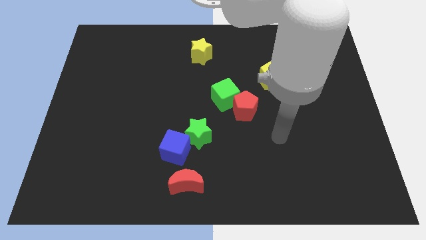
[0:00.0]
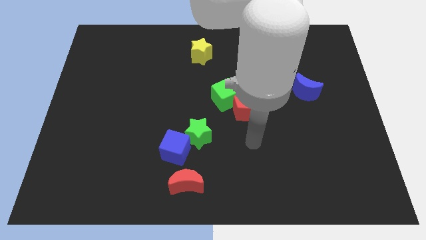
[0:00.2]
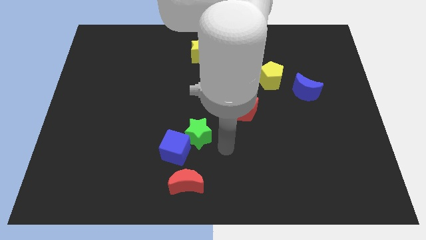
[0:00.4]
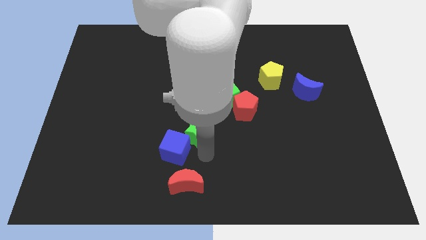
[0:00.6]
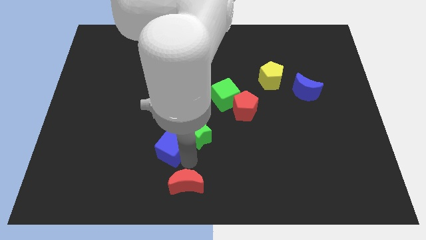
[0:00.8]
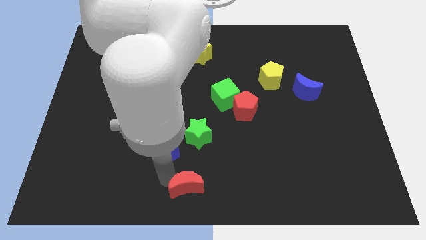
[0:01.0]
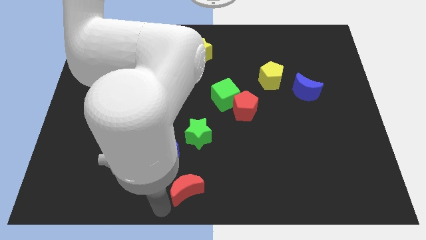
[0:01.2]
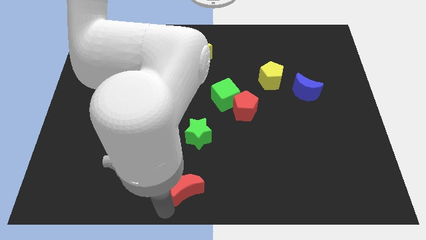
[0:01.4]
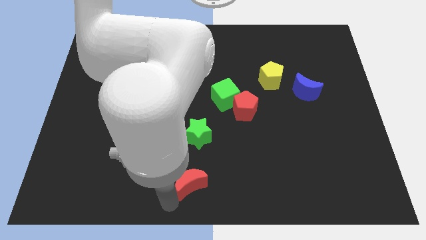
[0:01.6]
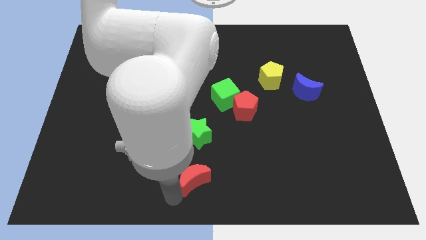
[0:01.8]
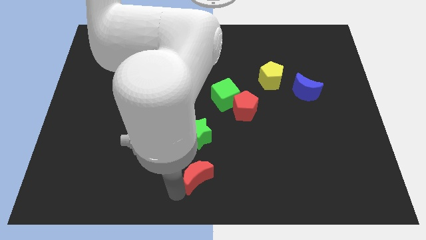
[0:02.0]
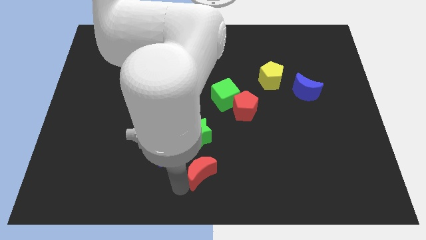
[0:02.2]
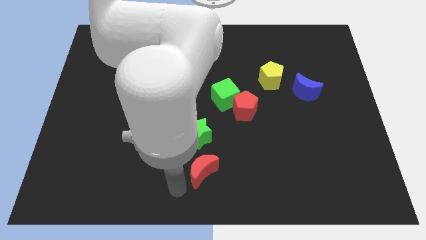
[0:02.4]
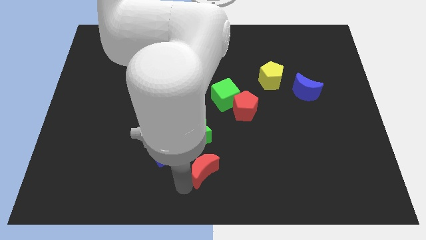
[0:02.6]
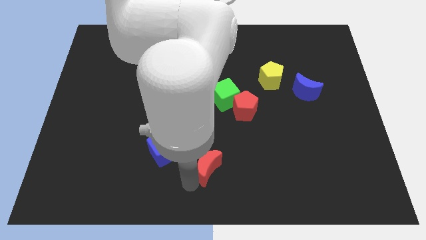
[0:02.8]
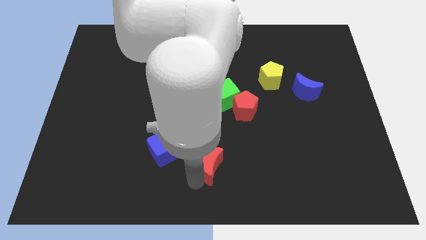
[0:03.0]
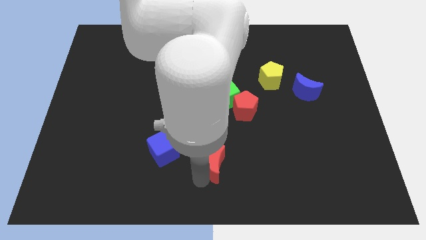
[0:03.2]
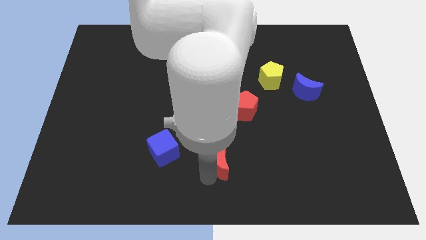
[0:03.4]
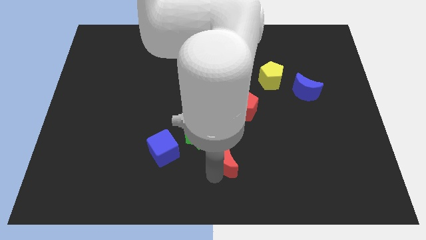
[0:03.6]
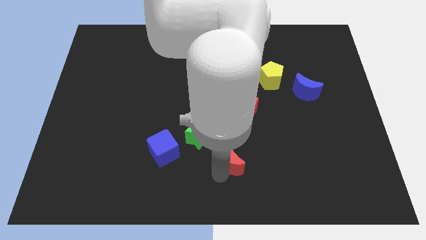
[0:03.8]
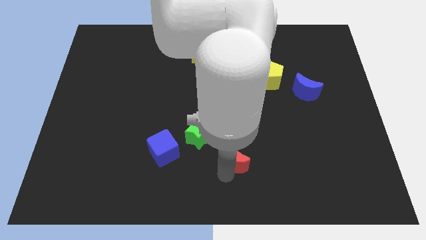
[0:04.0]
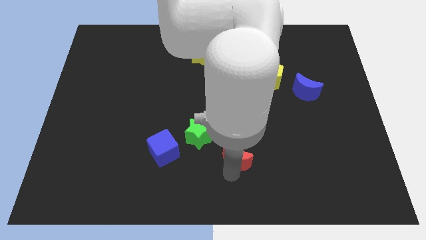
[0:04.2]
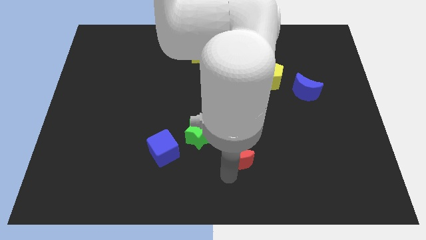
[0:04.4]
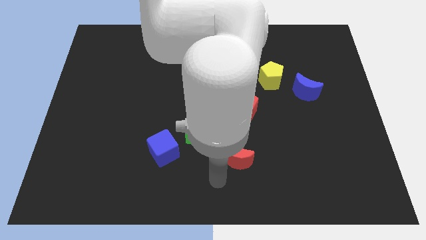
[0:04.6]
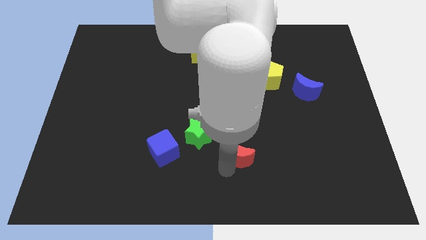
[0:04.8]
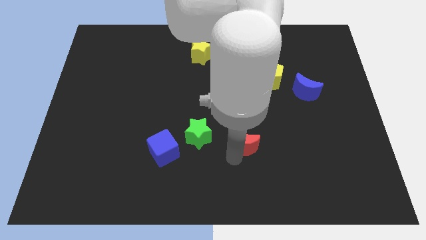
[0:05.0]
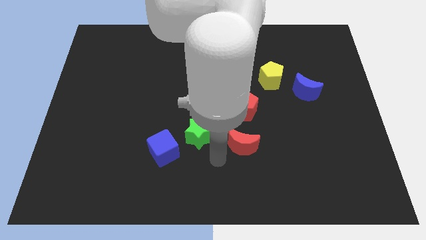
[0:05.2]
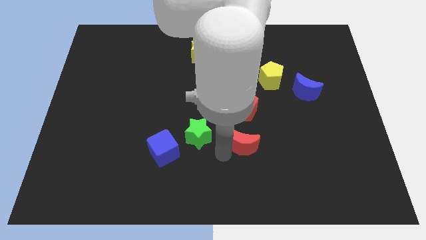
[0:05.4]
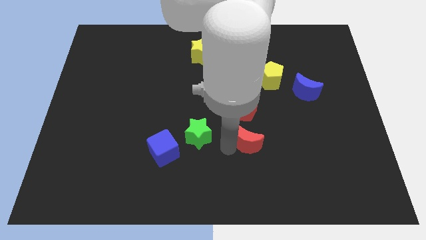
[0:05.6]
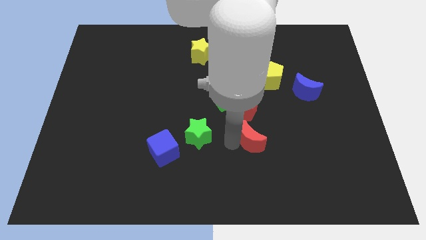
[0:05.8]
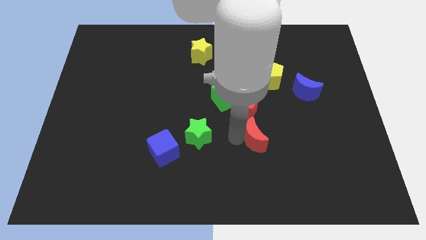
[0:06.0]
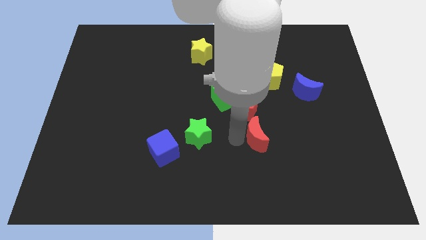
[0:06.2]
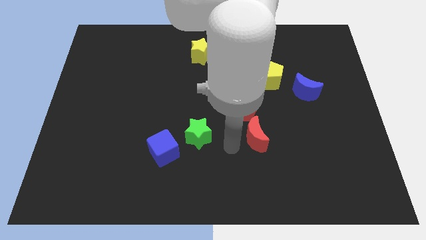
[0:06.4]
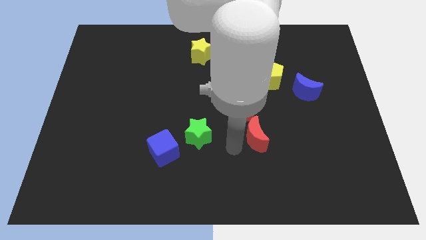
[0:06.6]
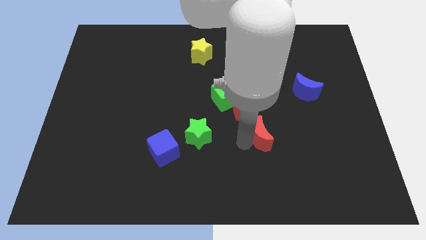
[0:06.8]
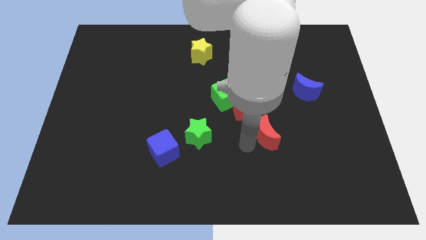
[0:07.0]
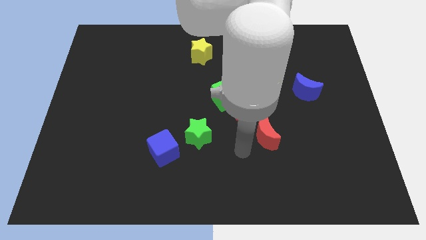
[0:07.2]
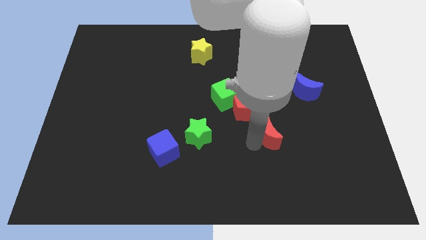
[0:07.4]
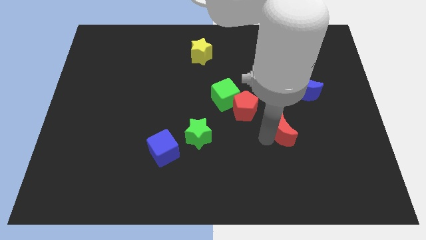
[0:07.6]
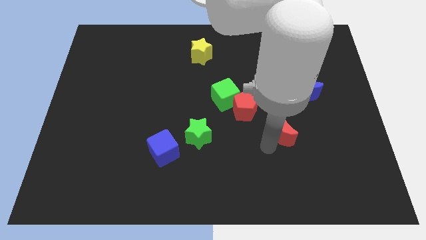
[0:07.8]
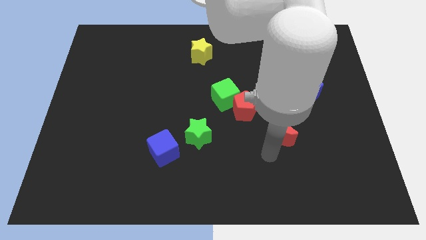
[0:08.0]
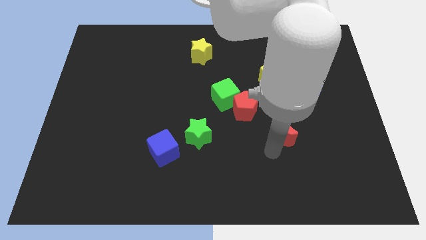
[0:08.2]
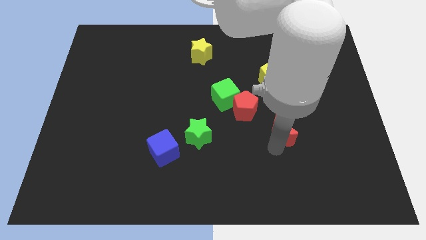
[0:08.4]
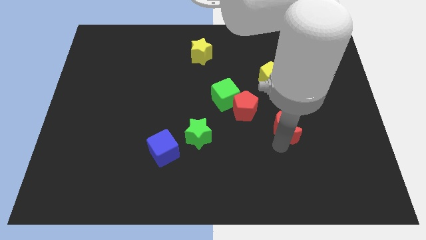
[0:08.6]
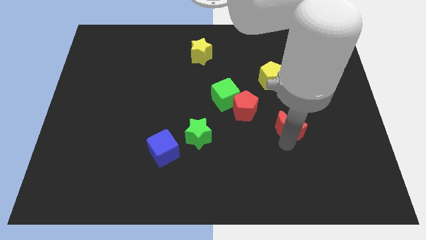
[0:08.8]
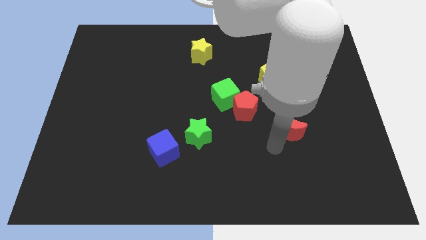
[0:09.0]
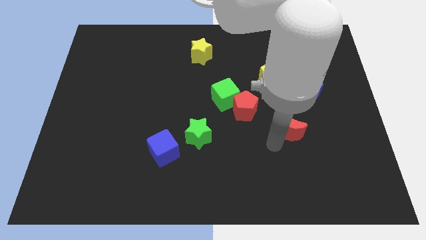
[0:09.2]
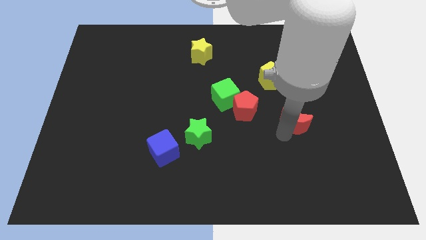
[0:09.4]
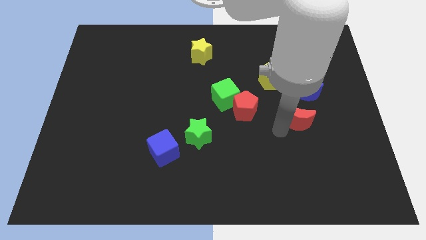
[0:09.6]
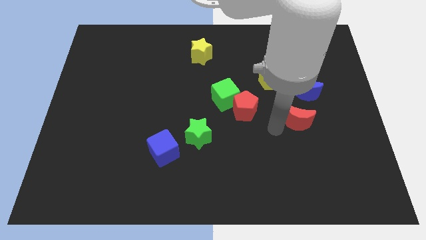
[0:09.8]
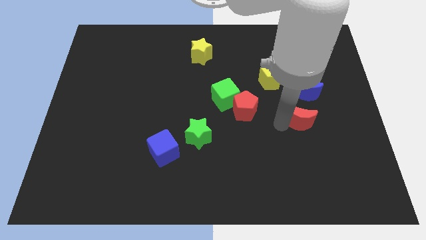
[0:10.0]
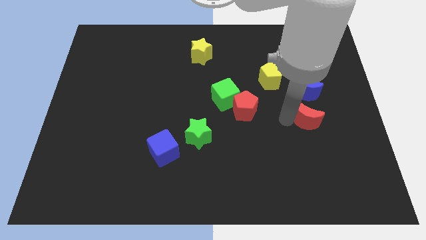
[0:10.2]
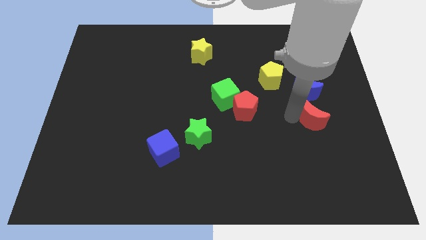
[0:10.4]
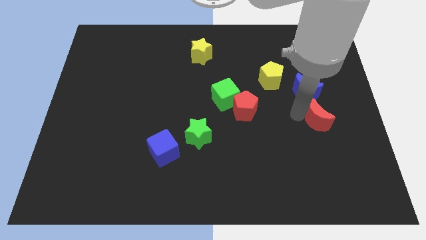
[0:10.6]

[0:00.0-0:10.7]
put the red moon diagonally down and to the right of the blue moon

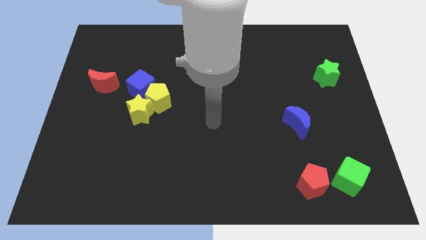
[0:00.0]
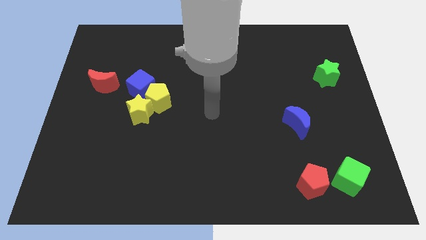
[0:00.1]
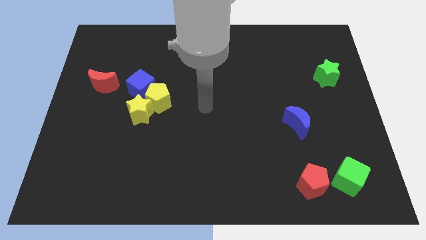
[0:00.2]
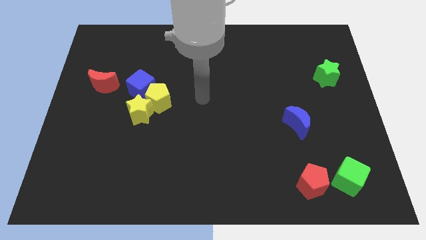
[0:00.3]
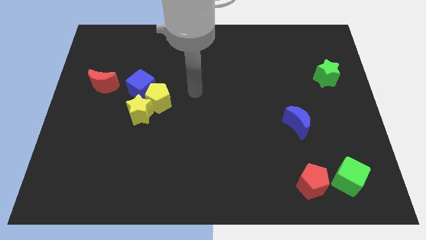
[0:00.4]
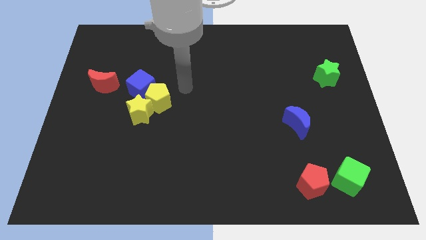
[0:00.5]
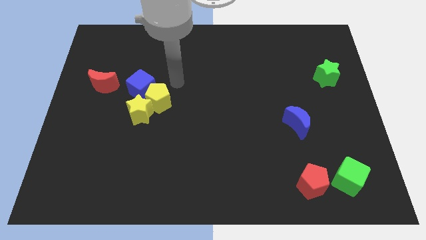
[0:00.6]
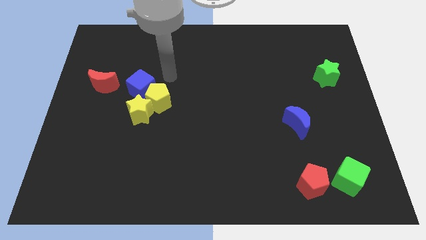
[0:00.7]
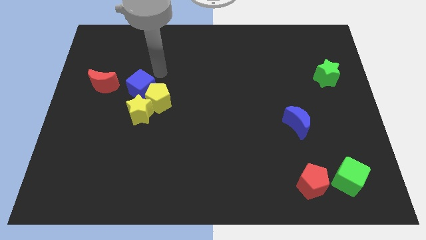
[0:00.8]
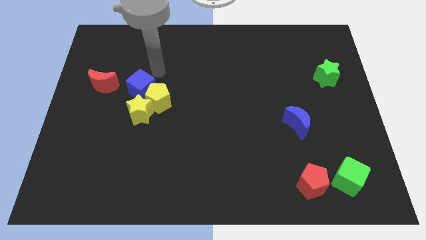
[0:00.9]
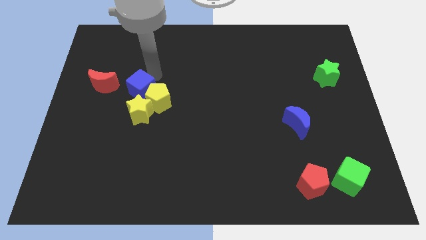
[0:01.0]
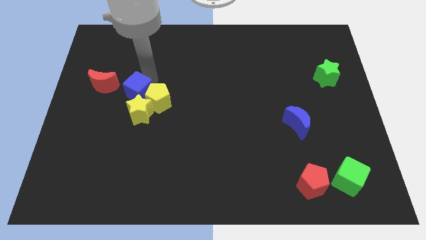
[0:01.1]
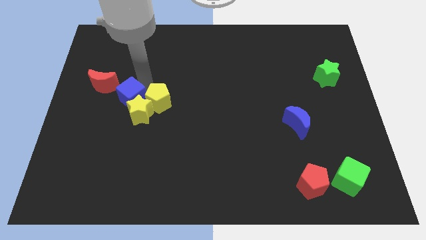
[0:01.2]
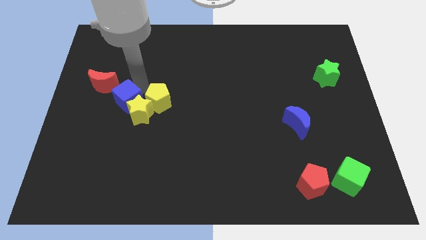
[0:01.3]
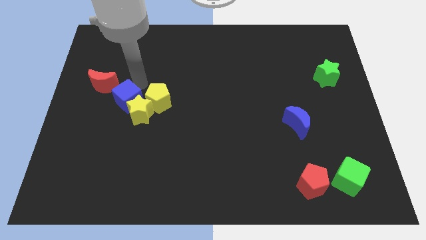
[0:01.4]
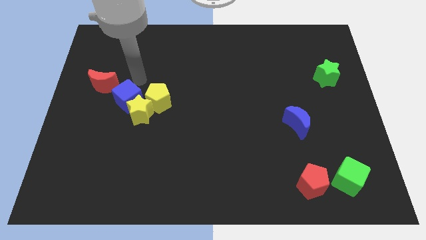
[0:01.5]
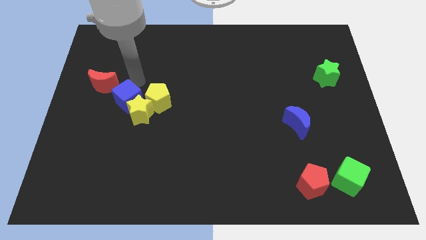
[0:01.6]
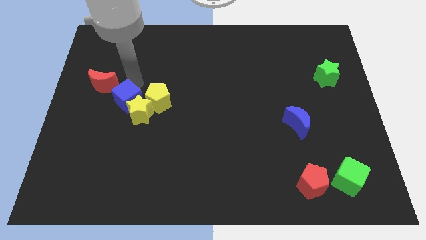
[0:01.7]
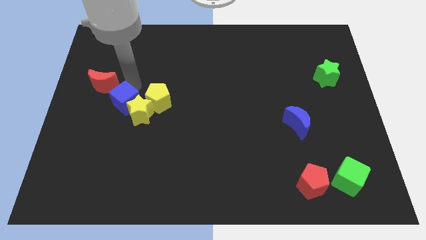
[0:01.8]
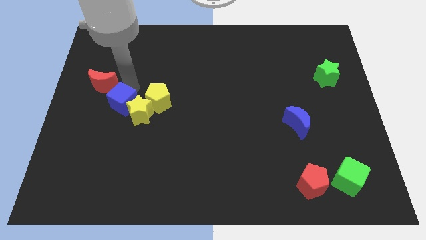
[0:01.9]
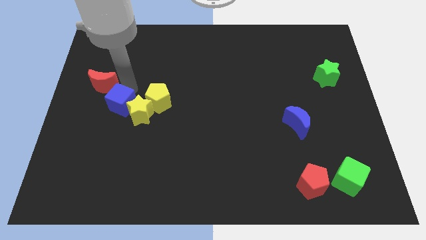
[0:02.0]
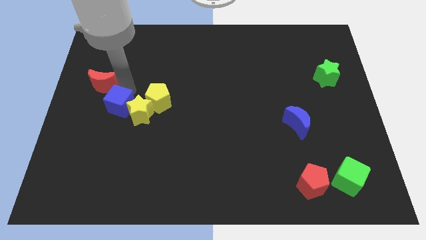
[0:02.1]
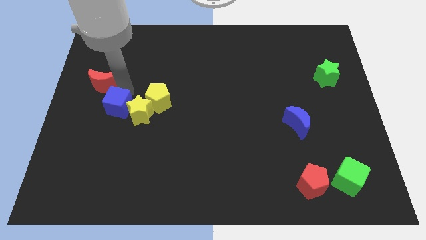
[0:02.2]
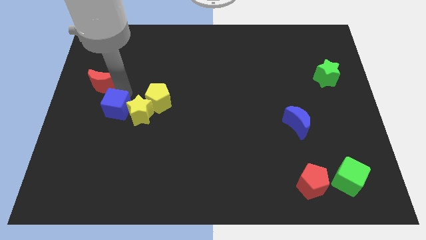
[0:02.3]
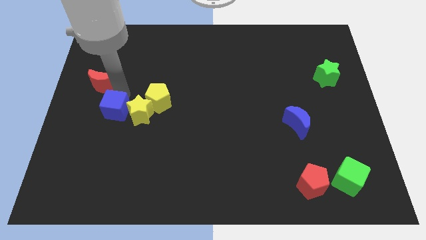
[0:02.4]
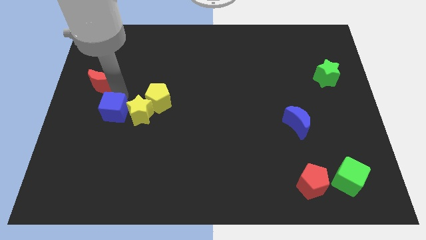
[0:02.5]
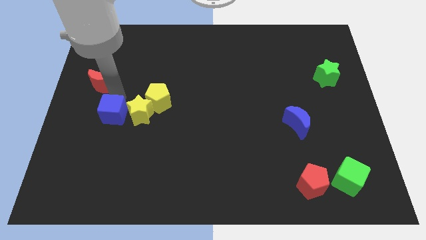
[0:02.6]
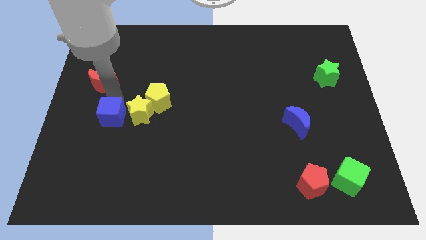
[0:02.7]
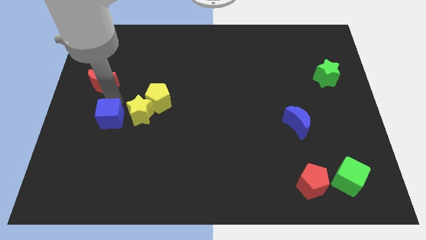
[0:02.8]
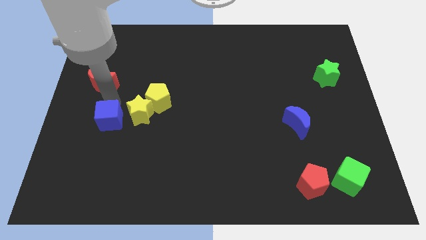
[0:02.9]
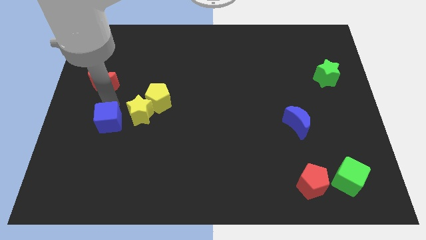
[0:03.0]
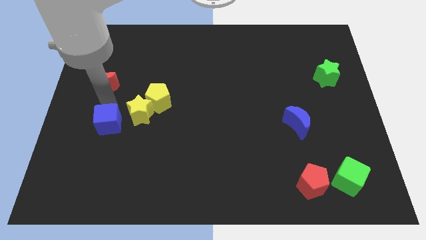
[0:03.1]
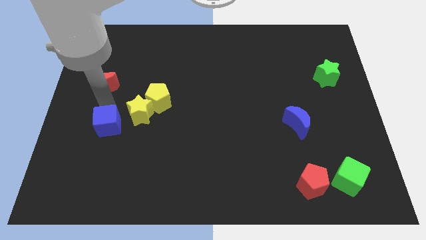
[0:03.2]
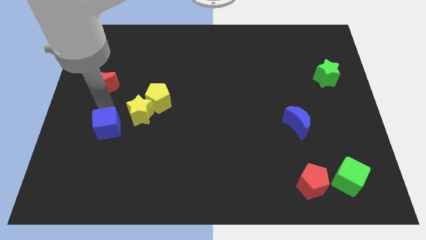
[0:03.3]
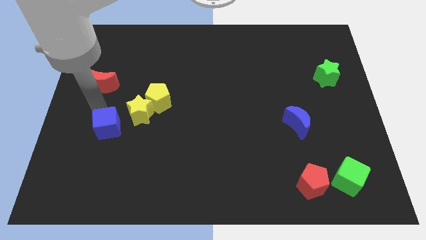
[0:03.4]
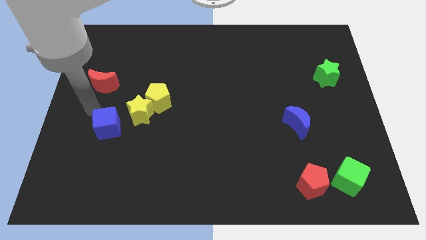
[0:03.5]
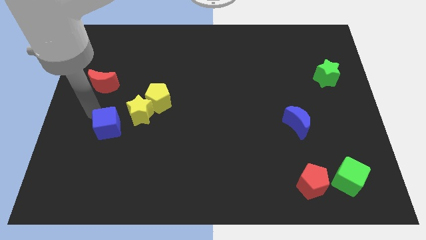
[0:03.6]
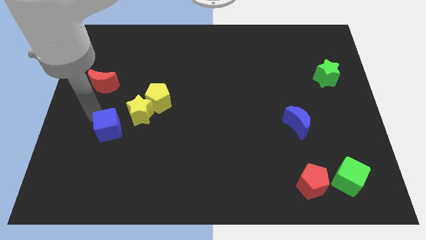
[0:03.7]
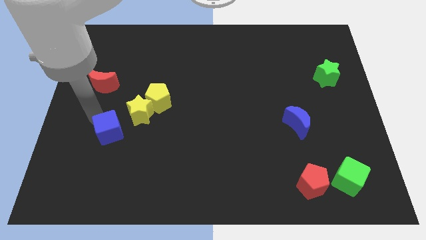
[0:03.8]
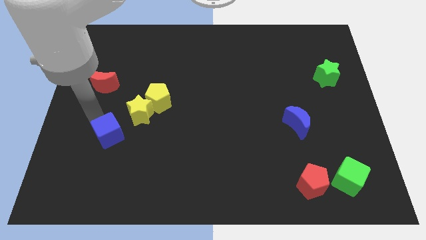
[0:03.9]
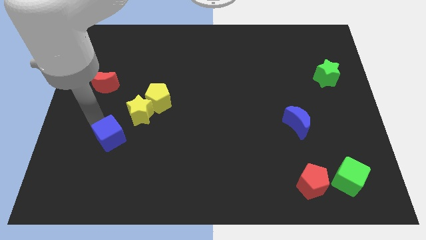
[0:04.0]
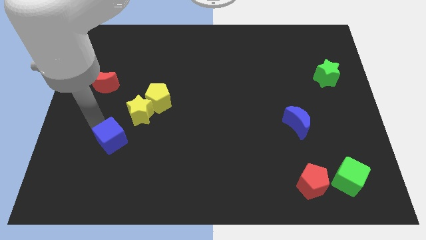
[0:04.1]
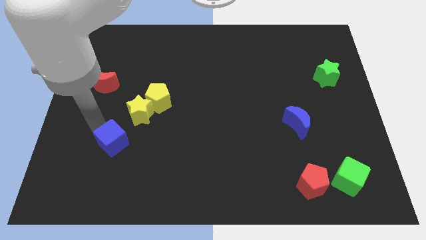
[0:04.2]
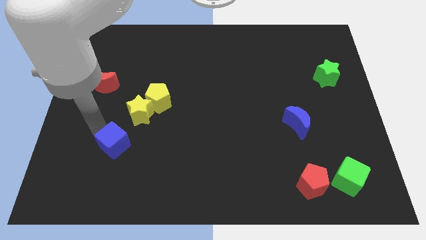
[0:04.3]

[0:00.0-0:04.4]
slide the blue cube to the bottom of the yellow star
